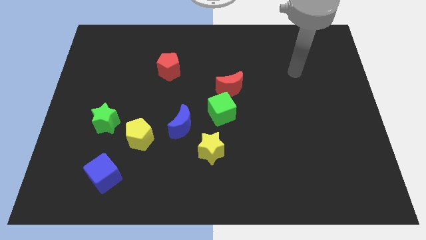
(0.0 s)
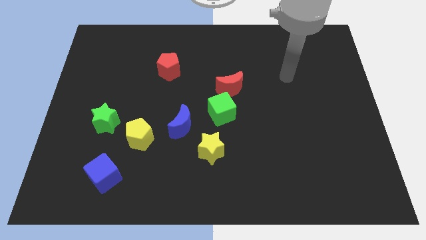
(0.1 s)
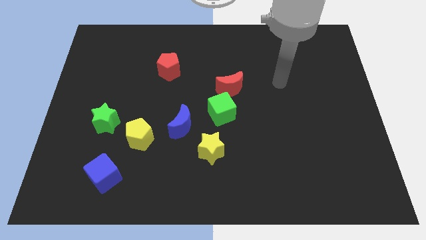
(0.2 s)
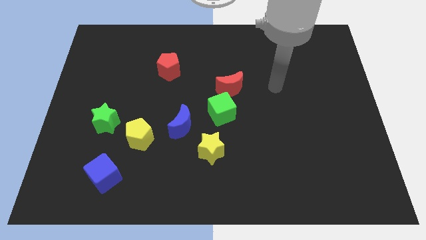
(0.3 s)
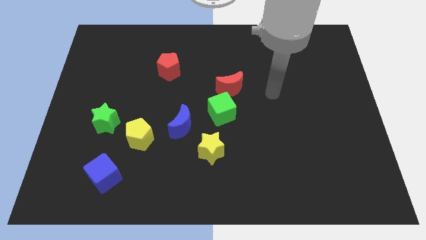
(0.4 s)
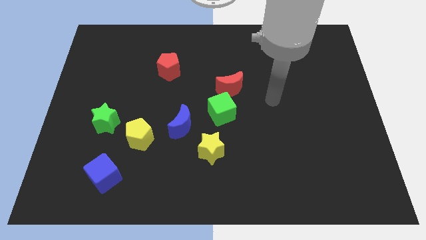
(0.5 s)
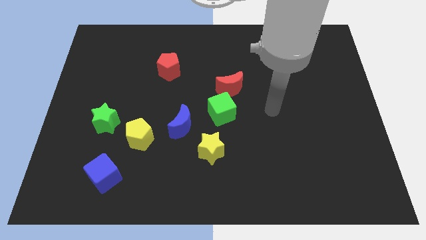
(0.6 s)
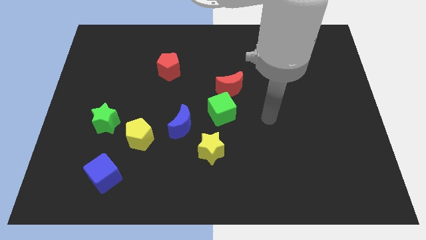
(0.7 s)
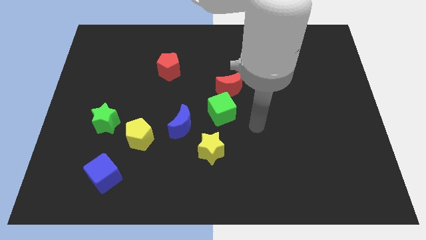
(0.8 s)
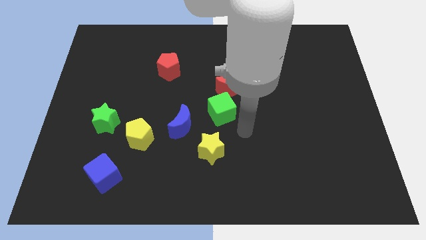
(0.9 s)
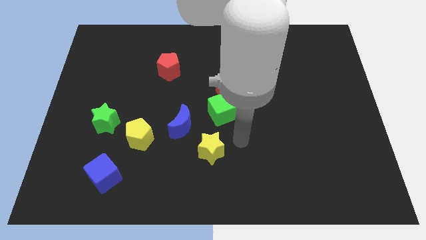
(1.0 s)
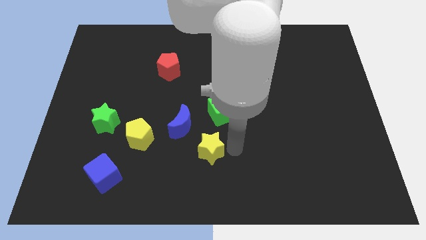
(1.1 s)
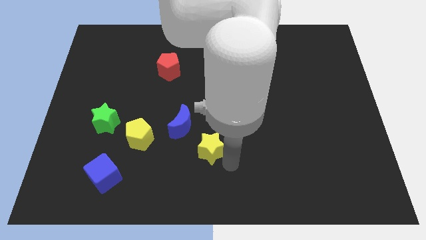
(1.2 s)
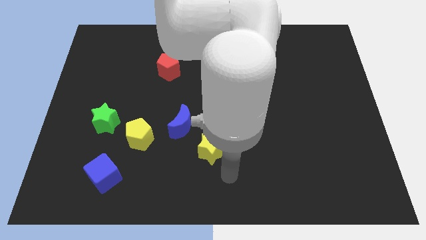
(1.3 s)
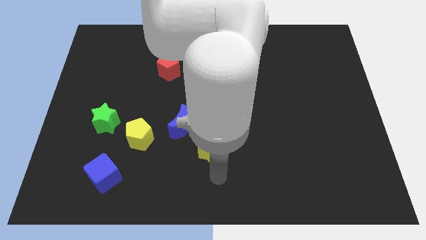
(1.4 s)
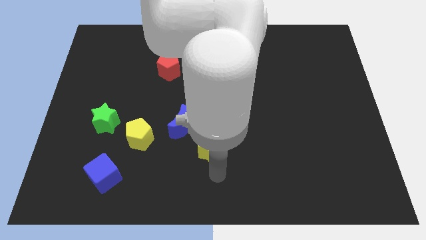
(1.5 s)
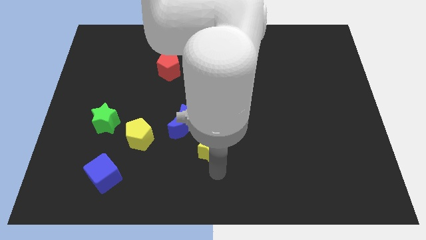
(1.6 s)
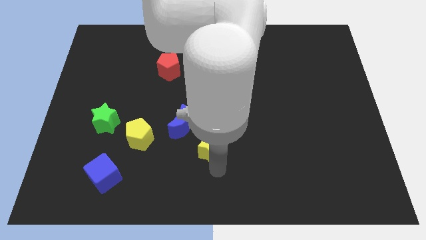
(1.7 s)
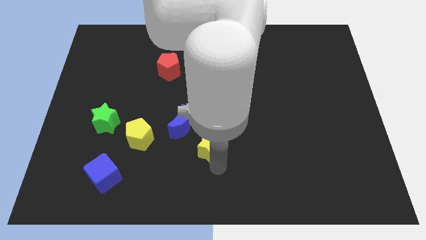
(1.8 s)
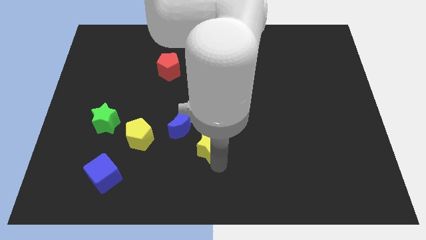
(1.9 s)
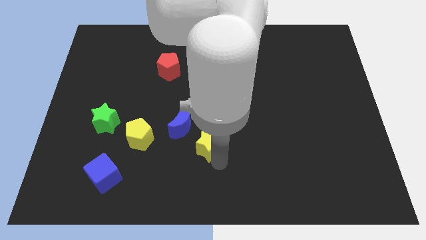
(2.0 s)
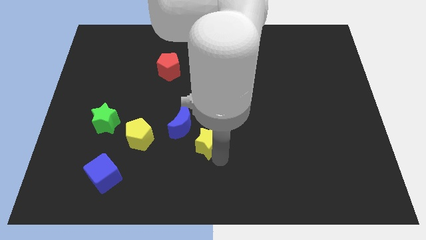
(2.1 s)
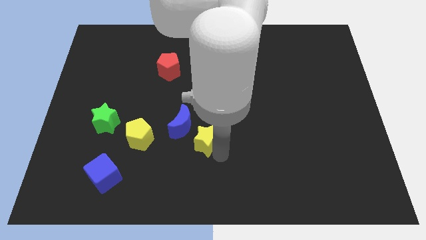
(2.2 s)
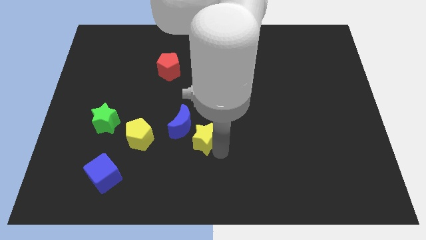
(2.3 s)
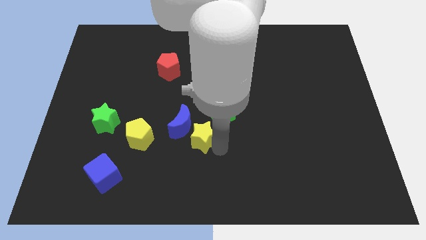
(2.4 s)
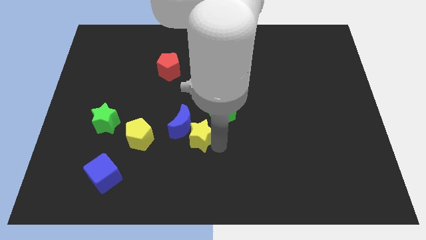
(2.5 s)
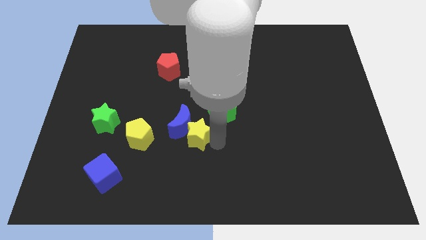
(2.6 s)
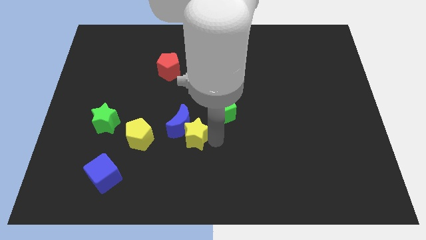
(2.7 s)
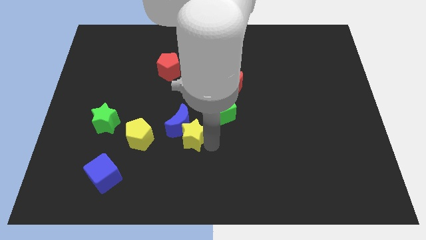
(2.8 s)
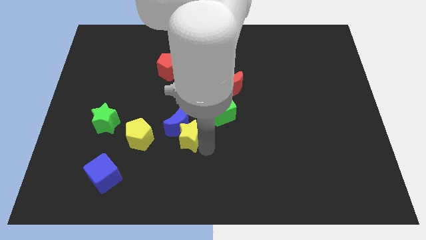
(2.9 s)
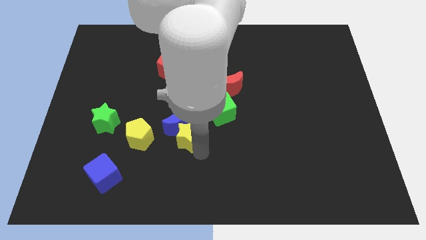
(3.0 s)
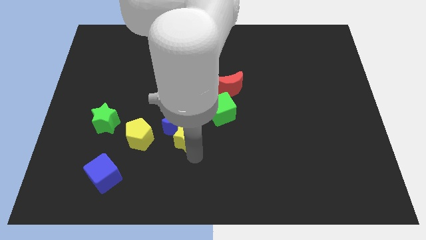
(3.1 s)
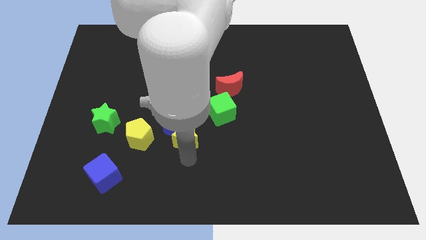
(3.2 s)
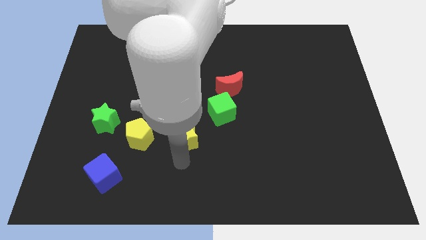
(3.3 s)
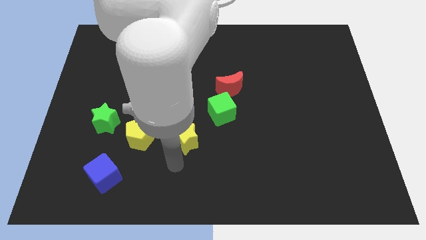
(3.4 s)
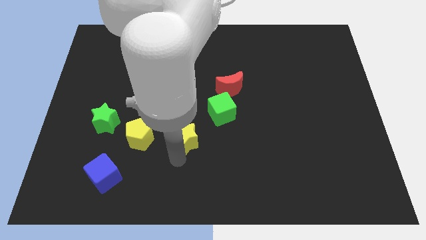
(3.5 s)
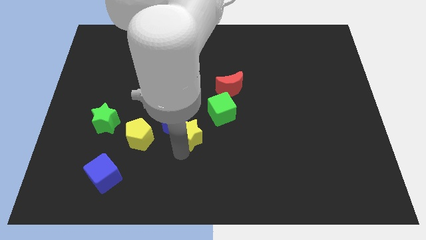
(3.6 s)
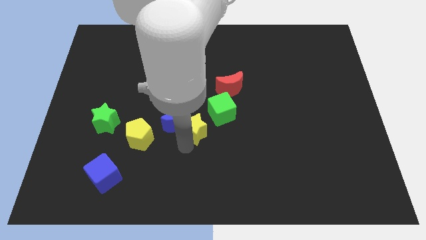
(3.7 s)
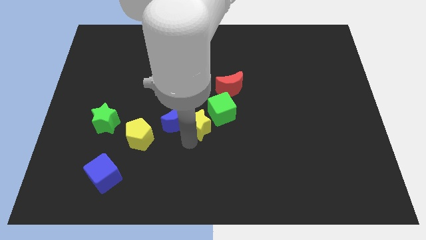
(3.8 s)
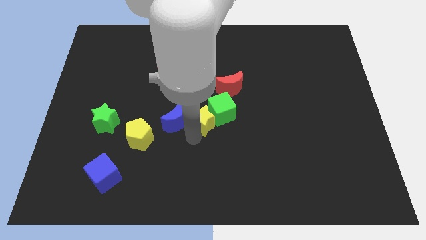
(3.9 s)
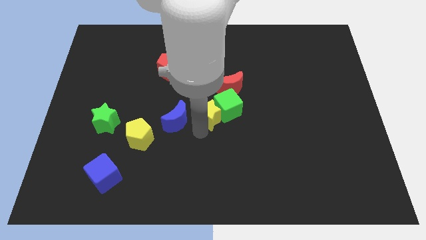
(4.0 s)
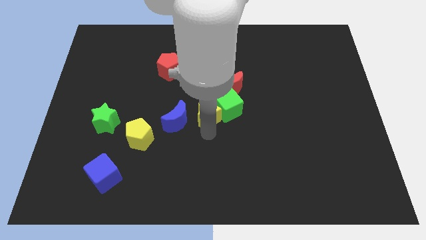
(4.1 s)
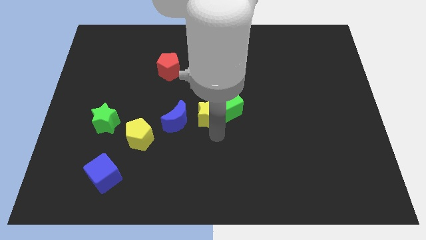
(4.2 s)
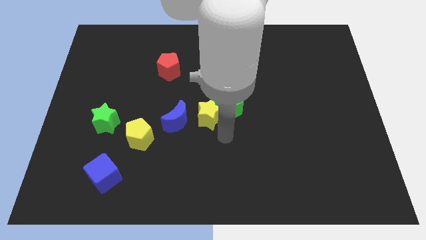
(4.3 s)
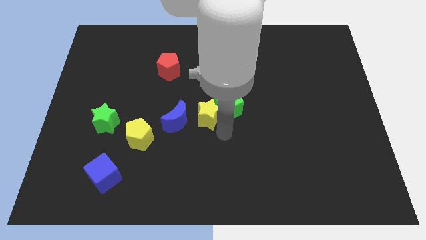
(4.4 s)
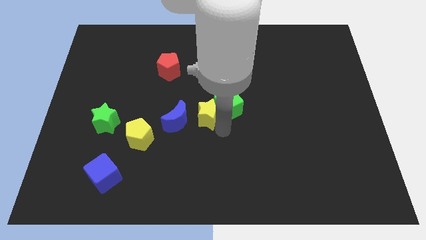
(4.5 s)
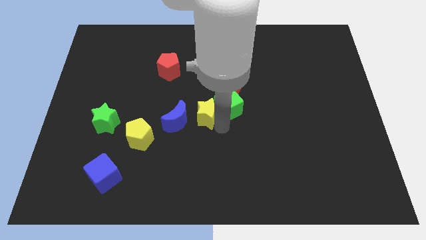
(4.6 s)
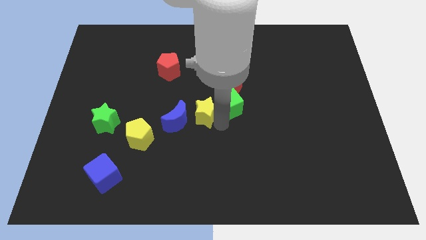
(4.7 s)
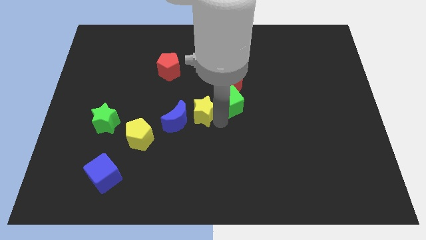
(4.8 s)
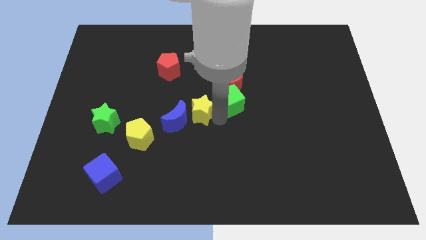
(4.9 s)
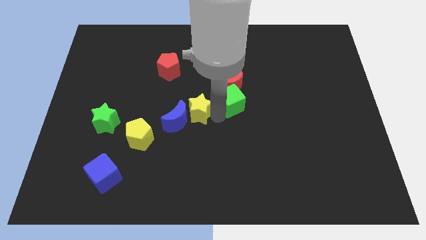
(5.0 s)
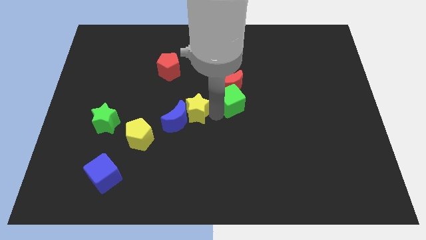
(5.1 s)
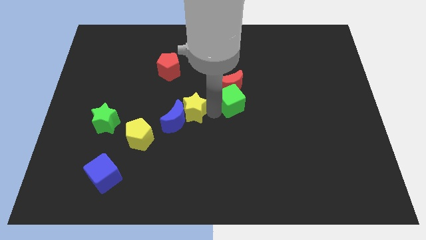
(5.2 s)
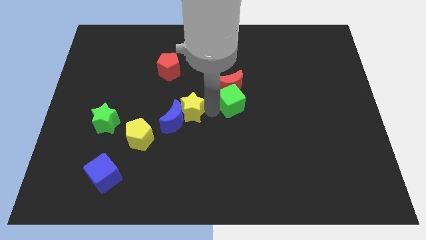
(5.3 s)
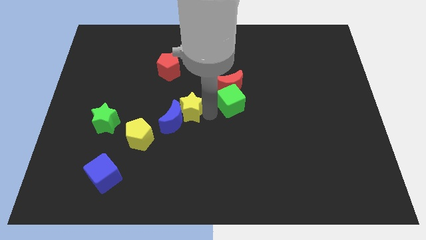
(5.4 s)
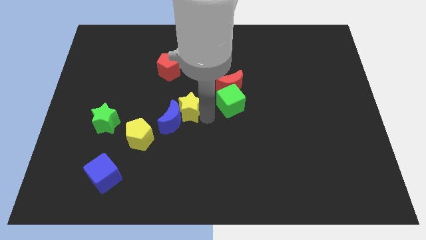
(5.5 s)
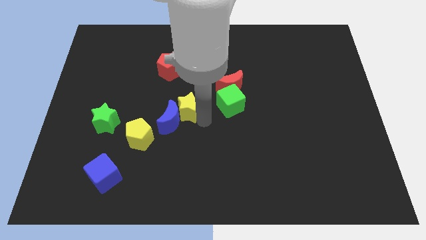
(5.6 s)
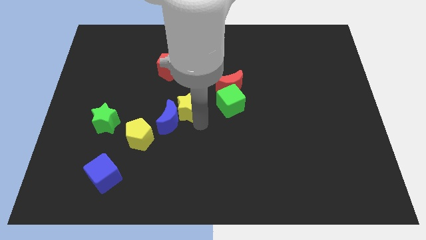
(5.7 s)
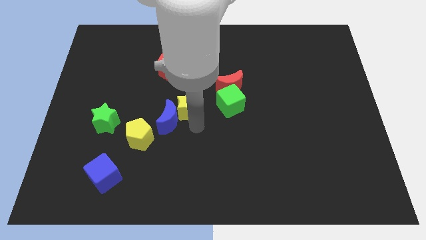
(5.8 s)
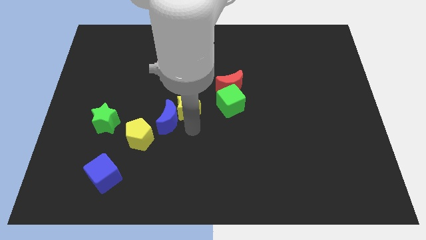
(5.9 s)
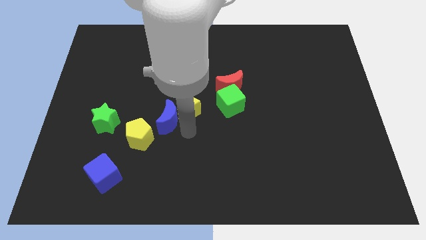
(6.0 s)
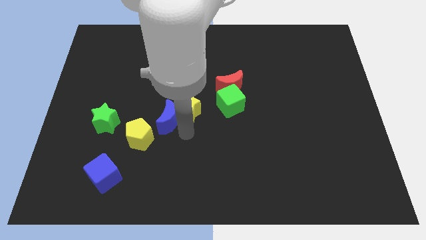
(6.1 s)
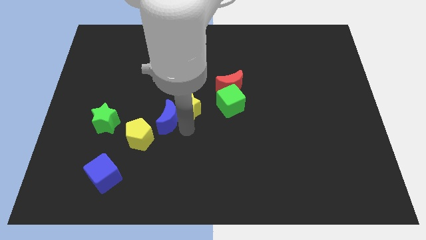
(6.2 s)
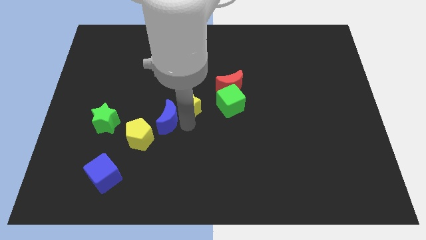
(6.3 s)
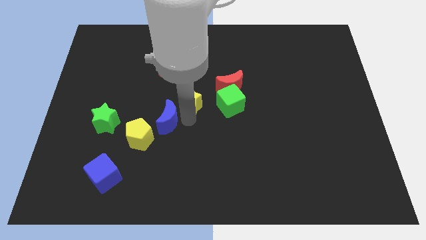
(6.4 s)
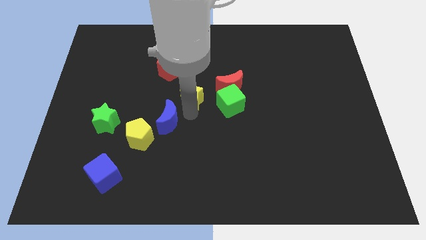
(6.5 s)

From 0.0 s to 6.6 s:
put the yellow star to the bottom right of the red pentagon

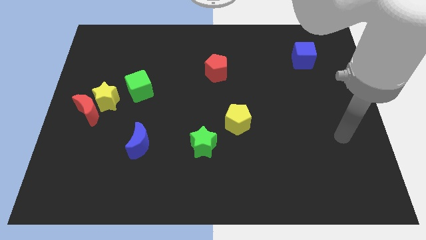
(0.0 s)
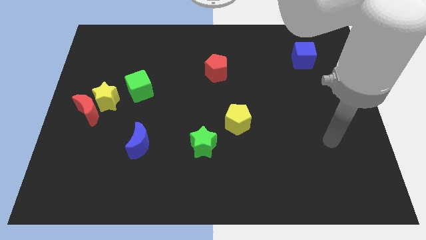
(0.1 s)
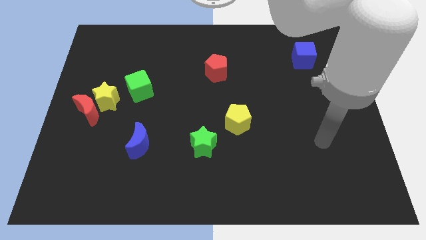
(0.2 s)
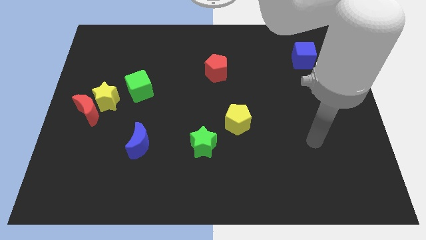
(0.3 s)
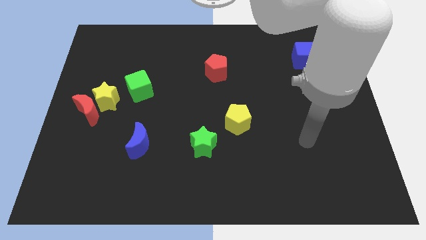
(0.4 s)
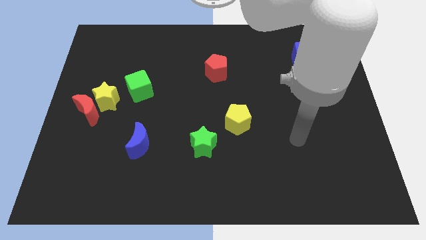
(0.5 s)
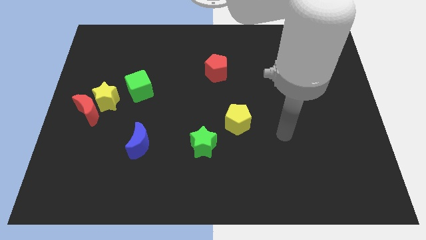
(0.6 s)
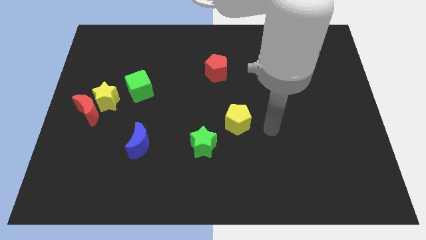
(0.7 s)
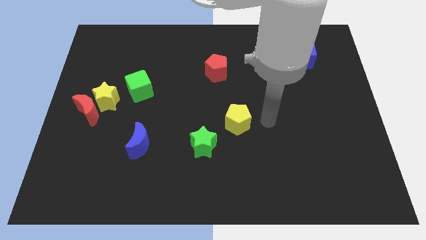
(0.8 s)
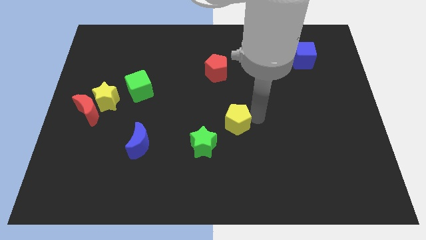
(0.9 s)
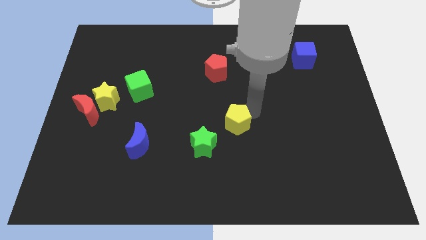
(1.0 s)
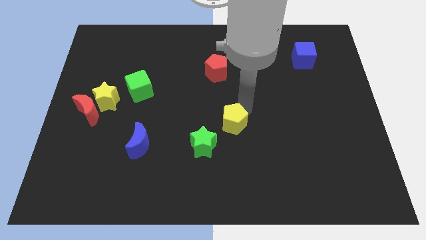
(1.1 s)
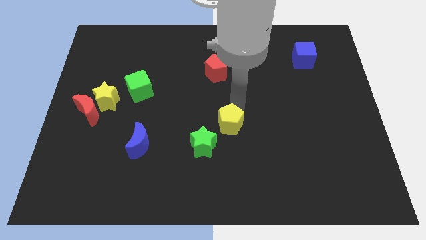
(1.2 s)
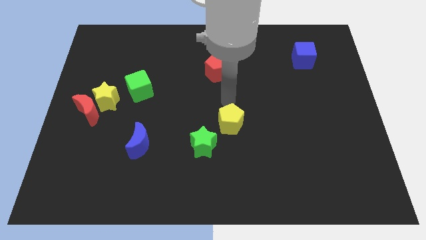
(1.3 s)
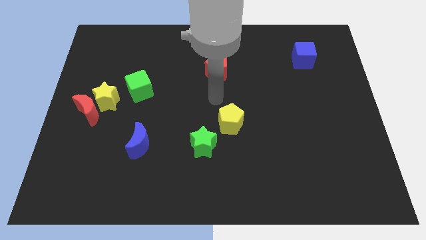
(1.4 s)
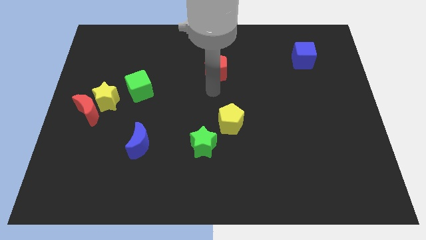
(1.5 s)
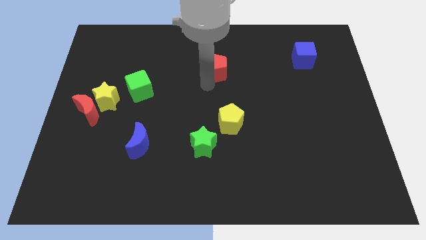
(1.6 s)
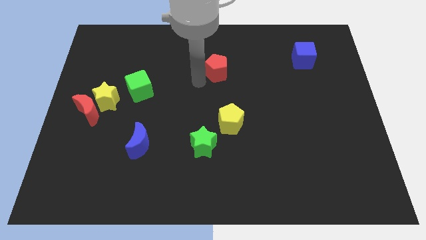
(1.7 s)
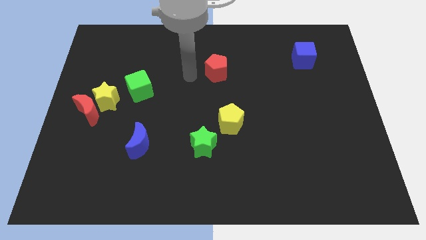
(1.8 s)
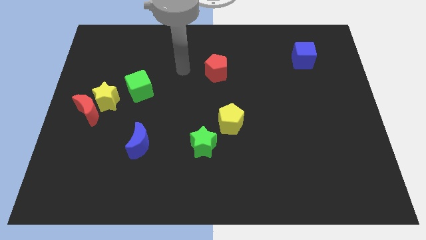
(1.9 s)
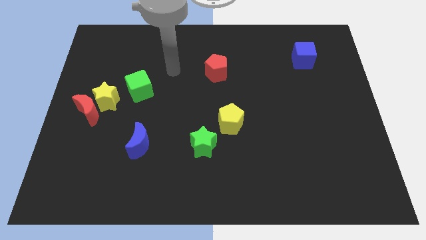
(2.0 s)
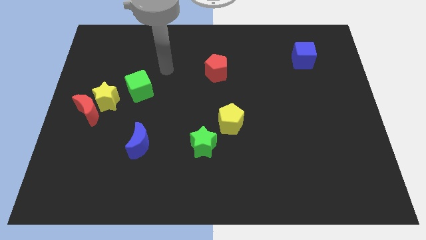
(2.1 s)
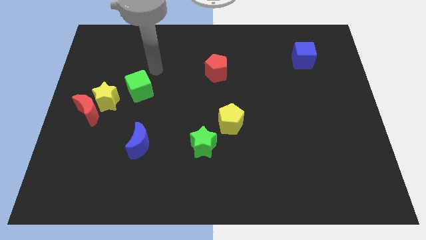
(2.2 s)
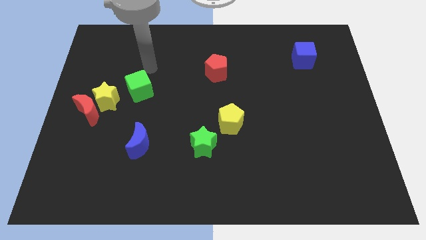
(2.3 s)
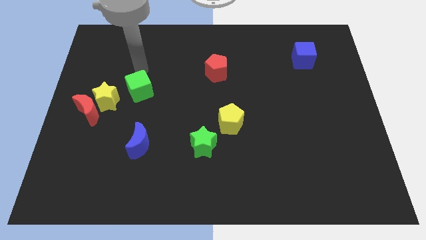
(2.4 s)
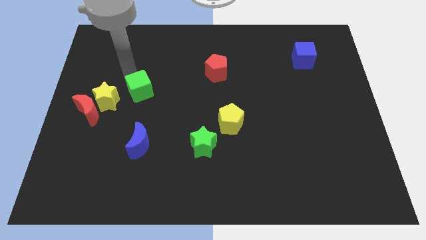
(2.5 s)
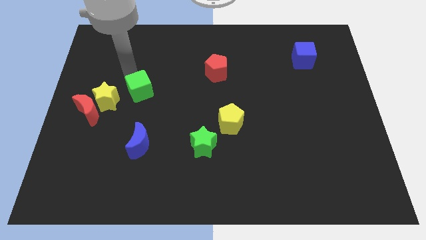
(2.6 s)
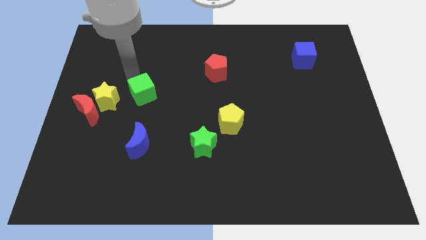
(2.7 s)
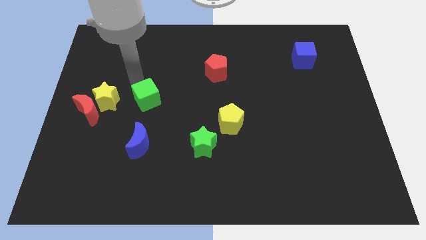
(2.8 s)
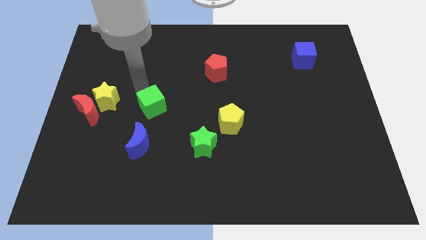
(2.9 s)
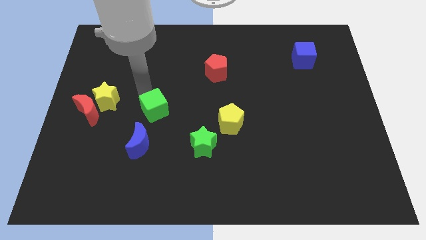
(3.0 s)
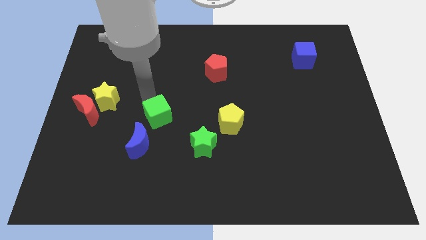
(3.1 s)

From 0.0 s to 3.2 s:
slide the green cube diagonally up and to the right of the blue moon
